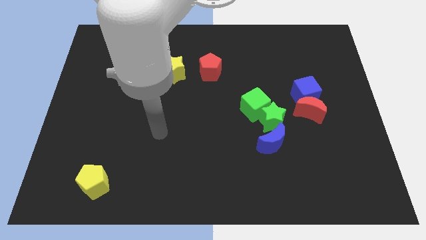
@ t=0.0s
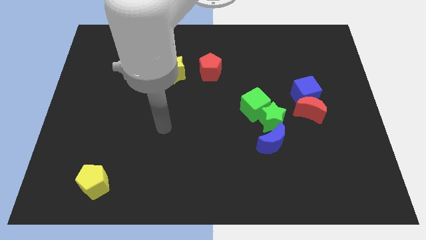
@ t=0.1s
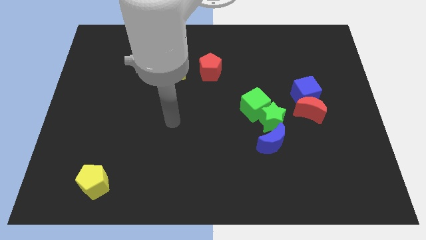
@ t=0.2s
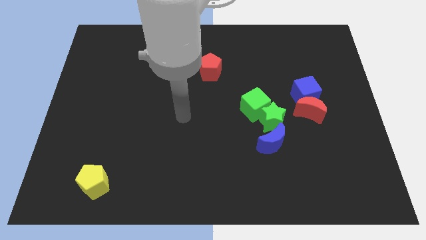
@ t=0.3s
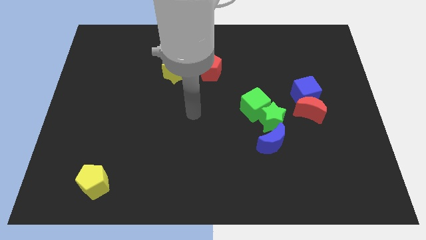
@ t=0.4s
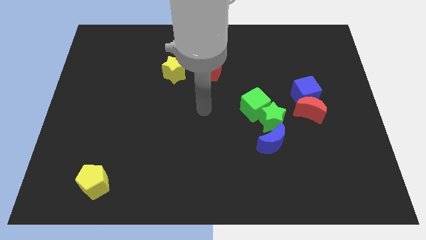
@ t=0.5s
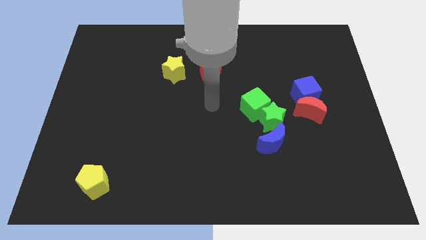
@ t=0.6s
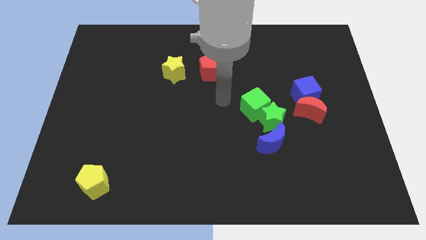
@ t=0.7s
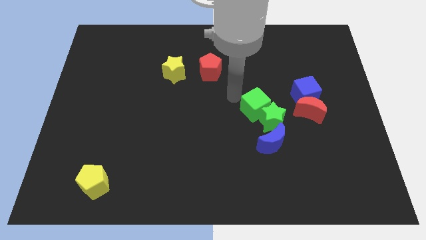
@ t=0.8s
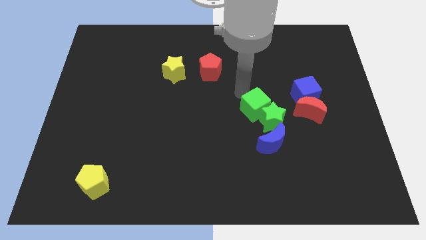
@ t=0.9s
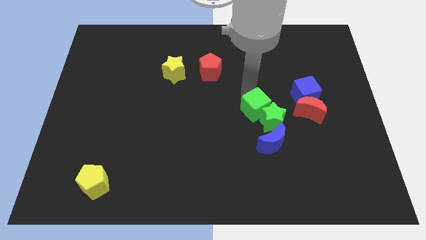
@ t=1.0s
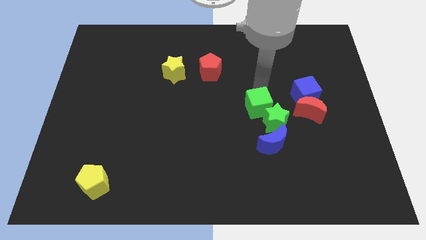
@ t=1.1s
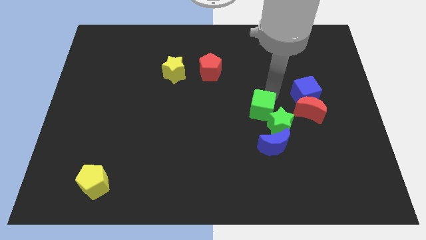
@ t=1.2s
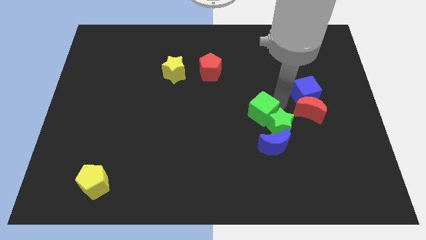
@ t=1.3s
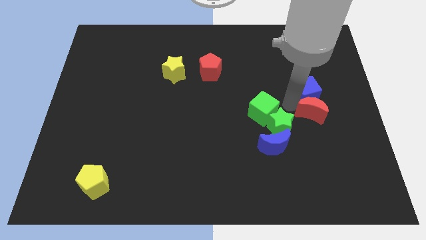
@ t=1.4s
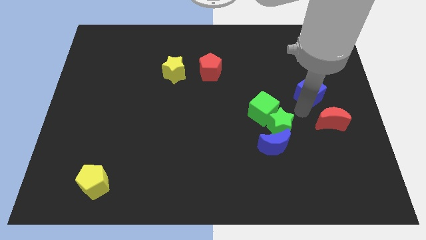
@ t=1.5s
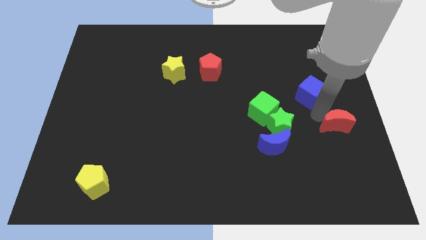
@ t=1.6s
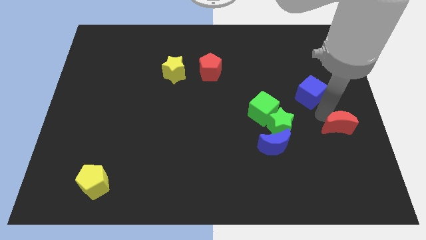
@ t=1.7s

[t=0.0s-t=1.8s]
move the blue cube away from the red moon

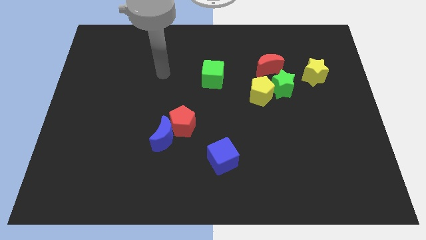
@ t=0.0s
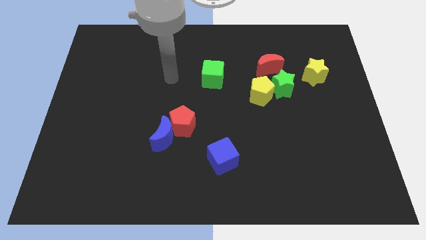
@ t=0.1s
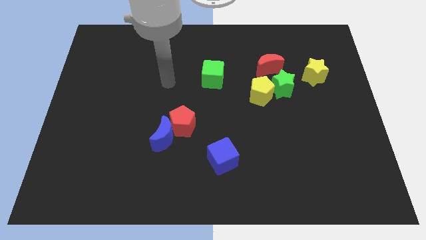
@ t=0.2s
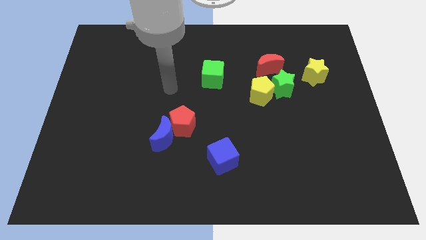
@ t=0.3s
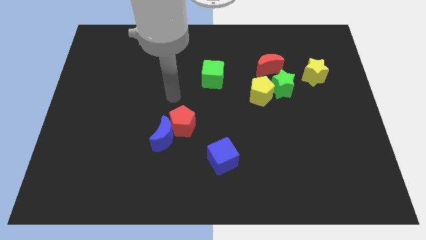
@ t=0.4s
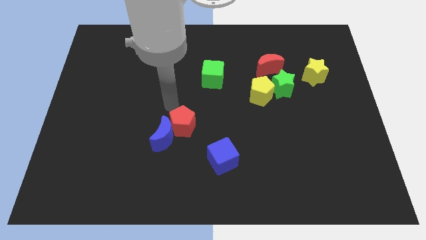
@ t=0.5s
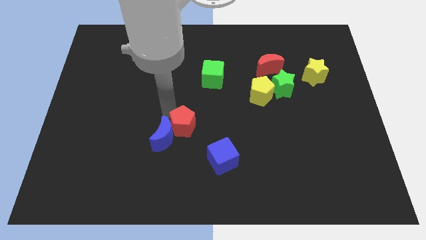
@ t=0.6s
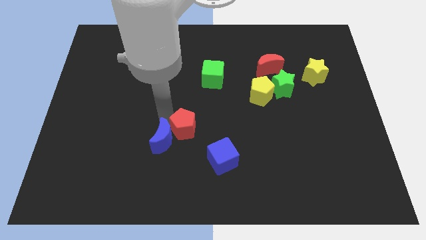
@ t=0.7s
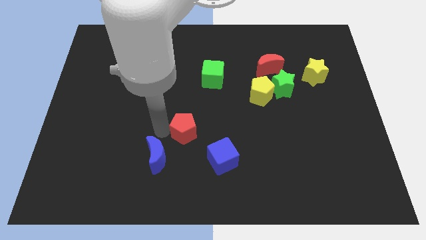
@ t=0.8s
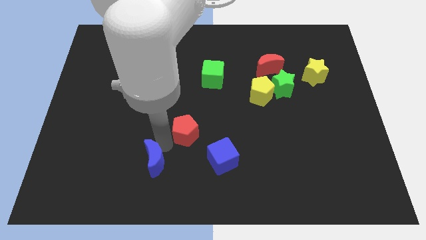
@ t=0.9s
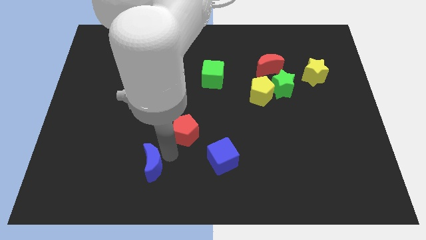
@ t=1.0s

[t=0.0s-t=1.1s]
separate the red pentagon from the blue moon

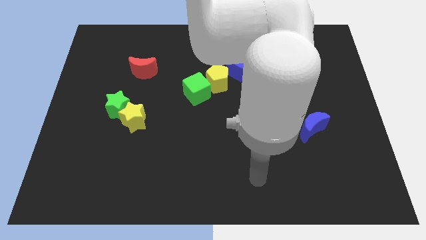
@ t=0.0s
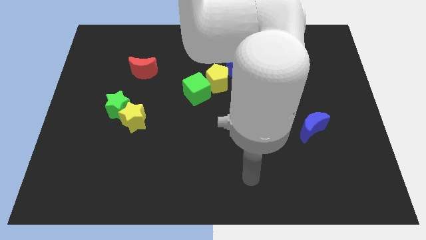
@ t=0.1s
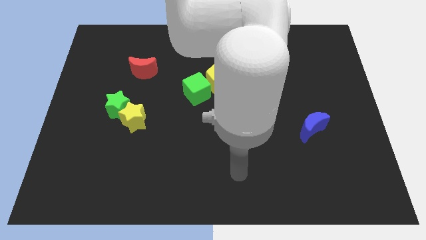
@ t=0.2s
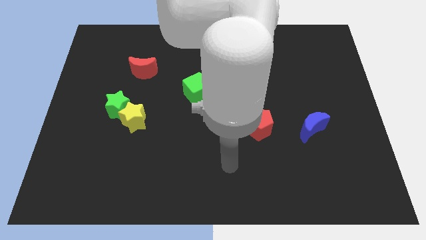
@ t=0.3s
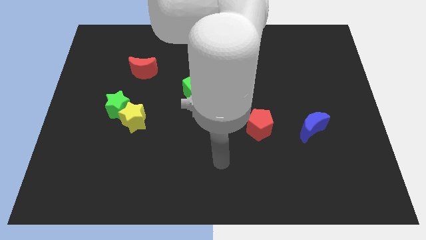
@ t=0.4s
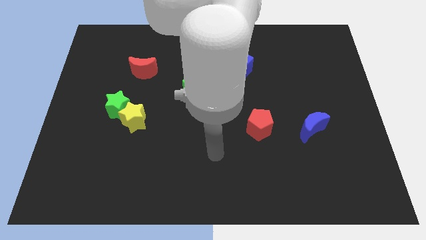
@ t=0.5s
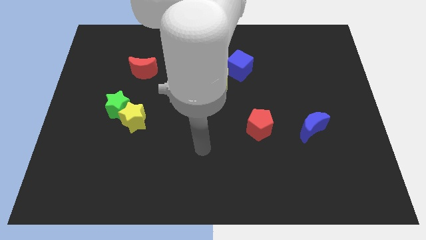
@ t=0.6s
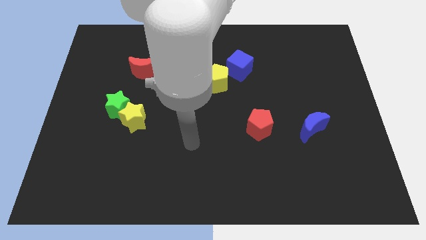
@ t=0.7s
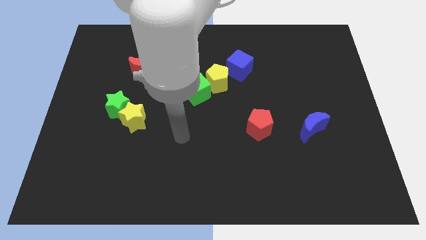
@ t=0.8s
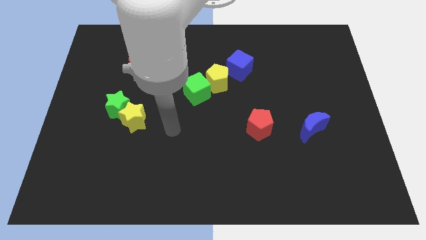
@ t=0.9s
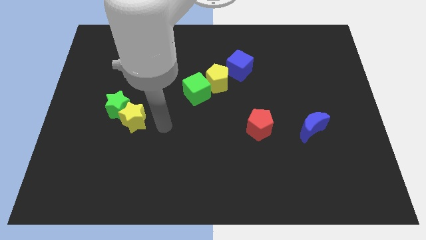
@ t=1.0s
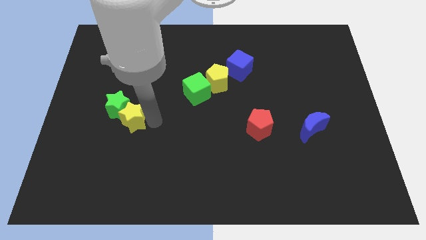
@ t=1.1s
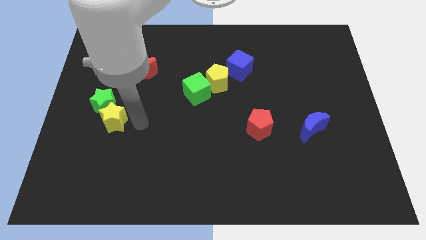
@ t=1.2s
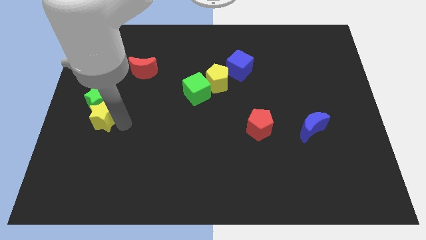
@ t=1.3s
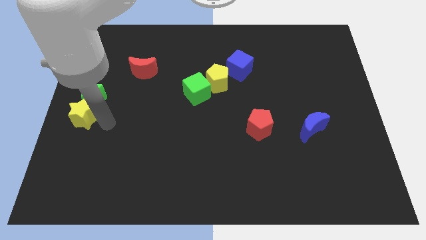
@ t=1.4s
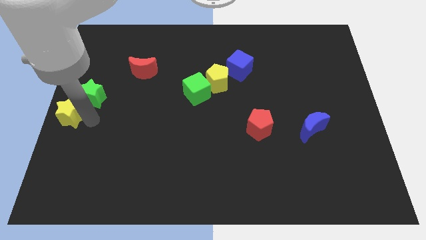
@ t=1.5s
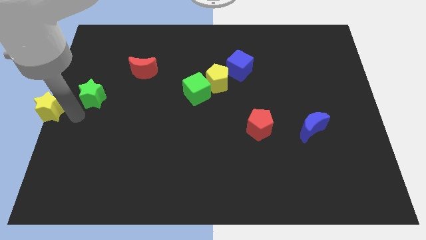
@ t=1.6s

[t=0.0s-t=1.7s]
pull the green star apart from the yellow star

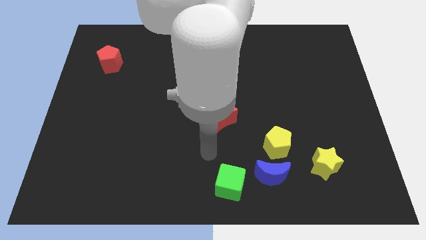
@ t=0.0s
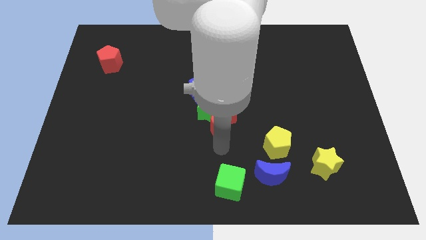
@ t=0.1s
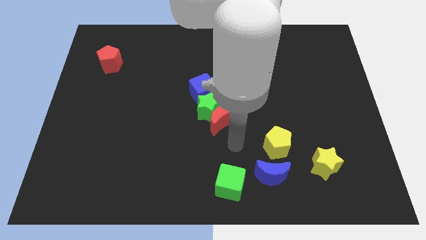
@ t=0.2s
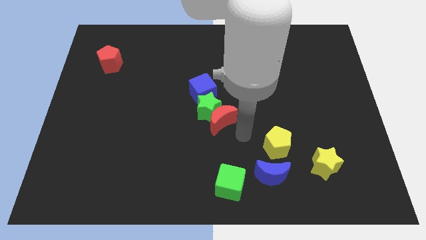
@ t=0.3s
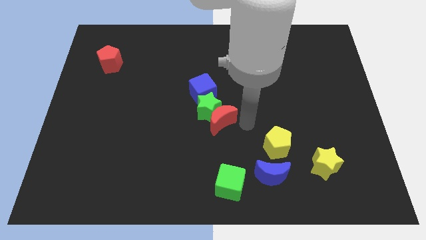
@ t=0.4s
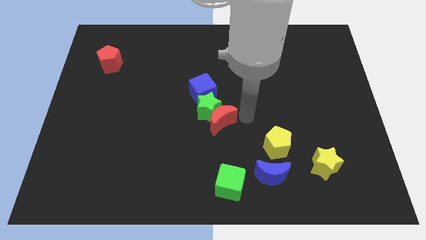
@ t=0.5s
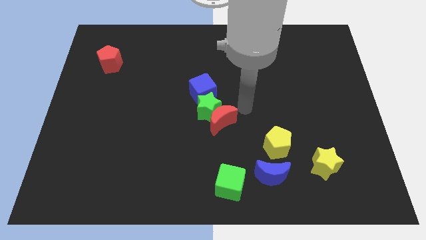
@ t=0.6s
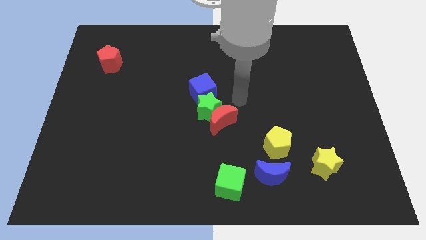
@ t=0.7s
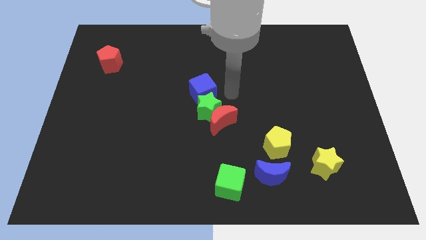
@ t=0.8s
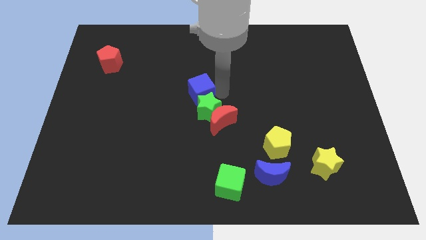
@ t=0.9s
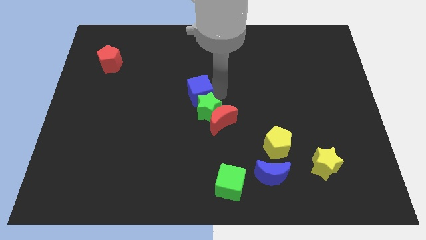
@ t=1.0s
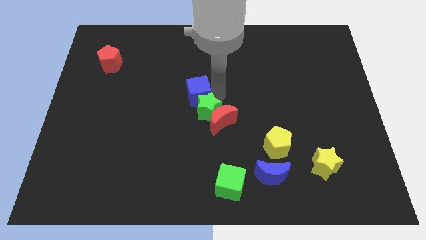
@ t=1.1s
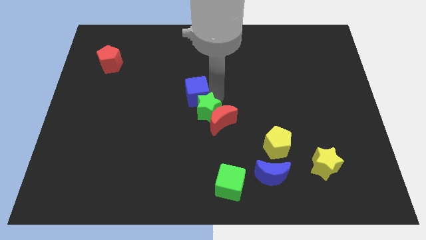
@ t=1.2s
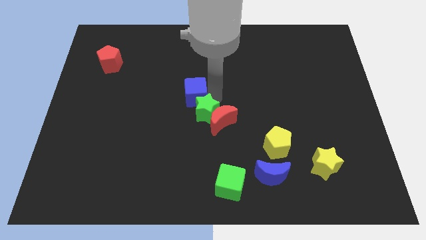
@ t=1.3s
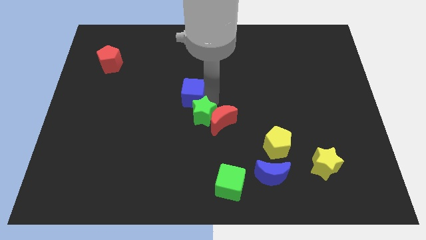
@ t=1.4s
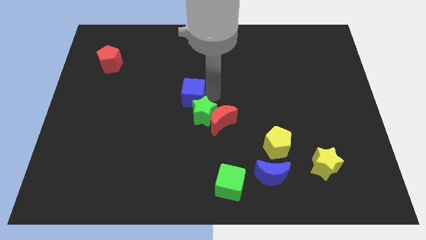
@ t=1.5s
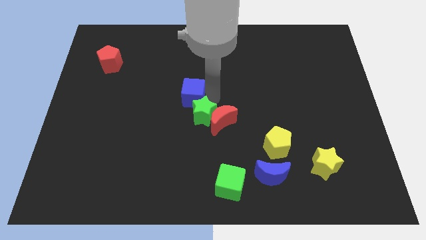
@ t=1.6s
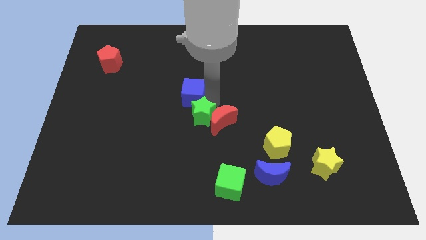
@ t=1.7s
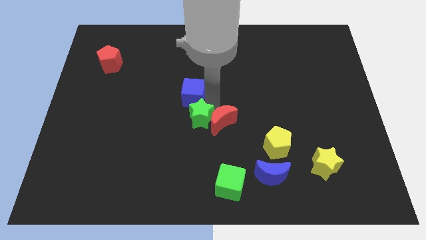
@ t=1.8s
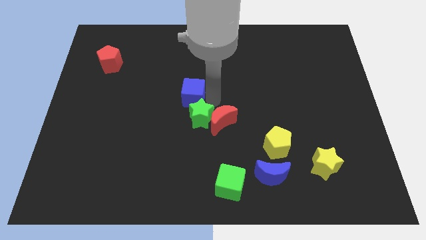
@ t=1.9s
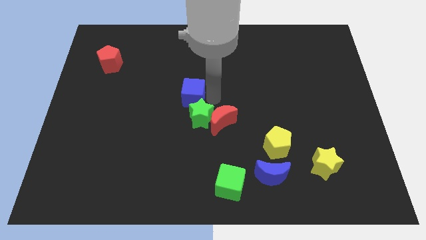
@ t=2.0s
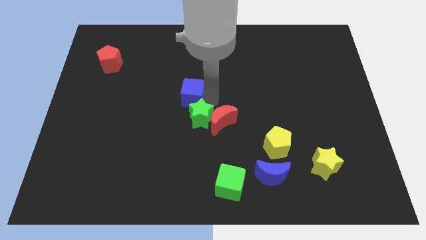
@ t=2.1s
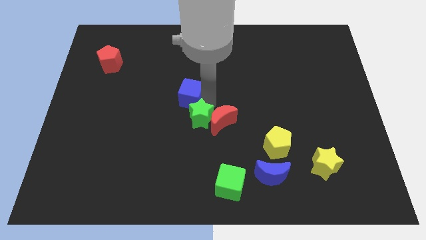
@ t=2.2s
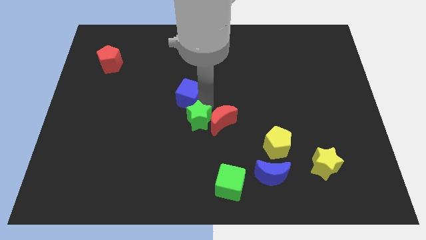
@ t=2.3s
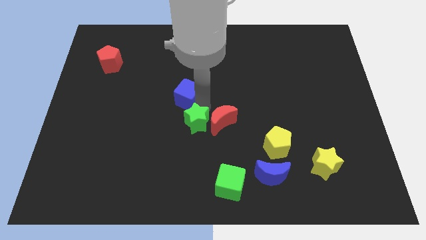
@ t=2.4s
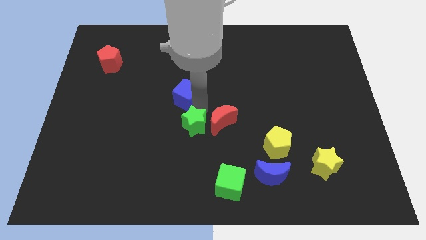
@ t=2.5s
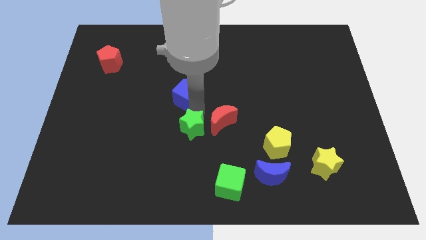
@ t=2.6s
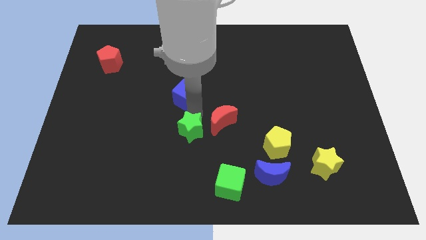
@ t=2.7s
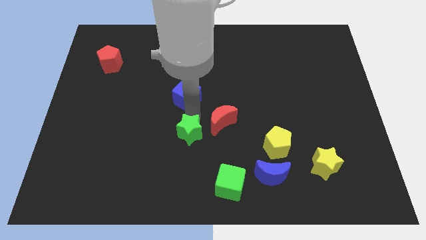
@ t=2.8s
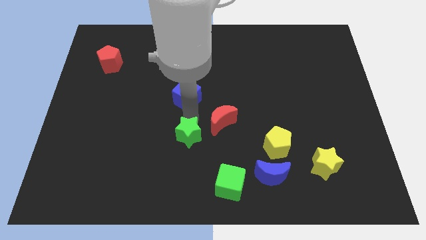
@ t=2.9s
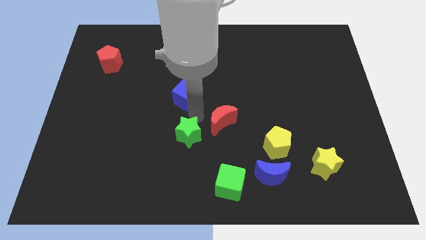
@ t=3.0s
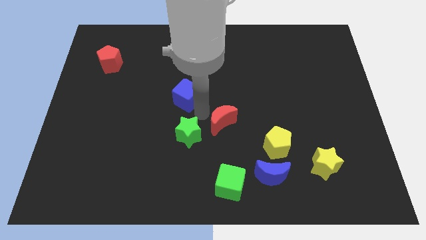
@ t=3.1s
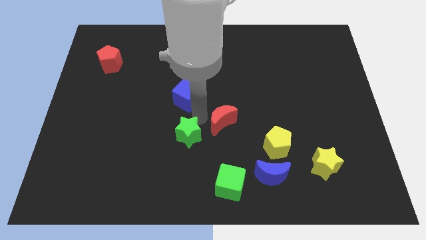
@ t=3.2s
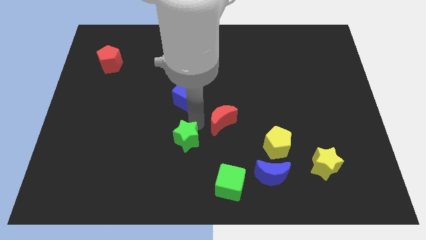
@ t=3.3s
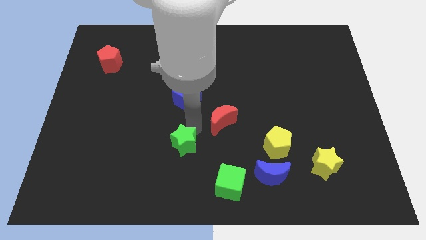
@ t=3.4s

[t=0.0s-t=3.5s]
separate the green star from the red moon and blue cube

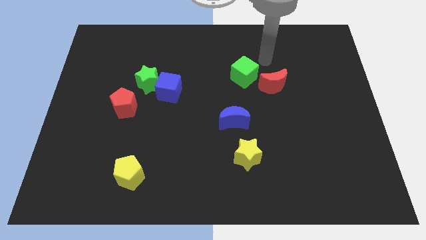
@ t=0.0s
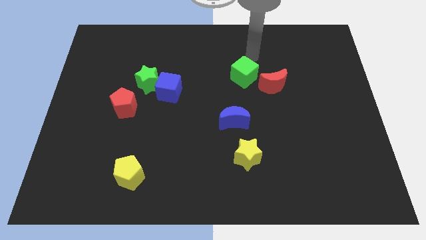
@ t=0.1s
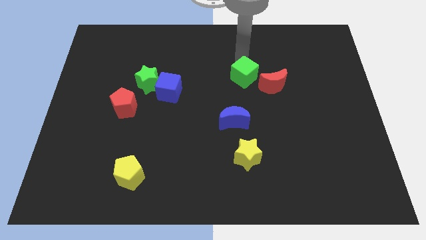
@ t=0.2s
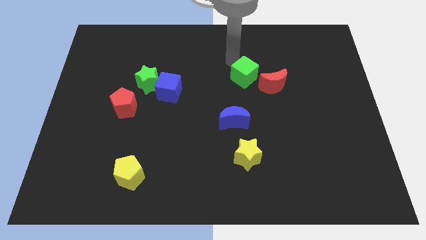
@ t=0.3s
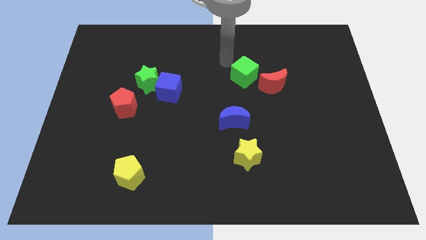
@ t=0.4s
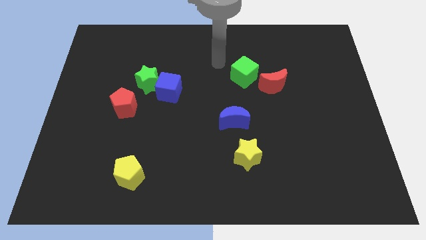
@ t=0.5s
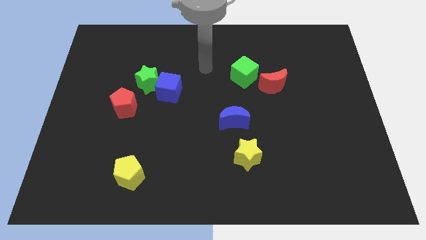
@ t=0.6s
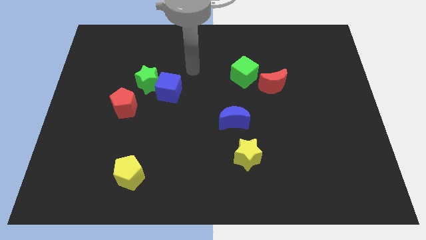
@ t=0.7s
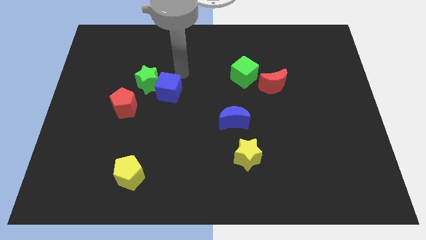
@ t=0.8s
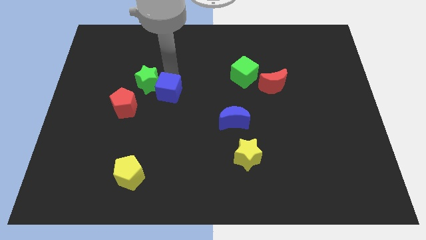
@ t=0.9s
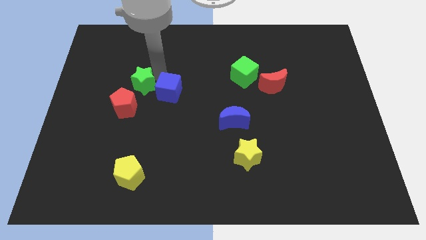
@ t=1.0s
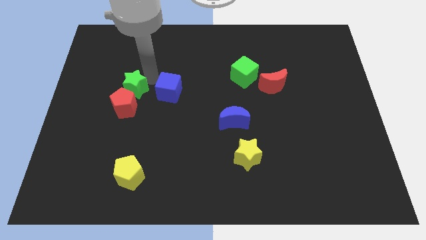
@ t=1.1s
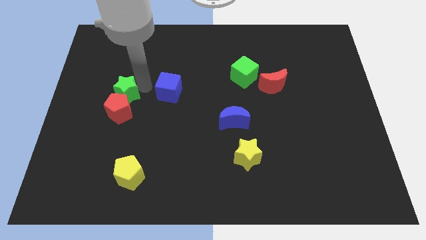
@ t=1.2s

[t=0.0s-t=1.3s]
separate the blue cube from the green star

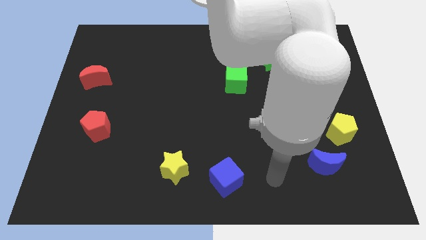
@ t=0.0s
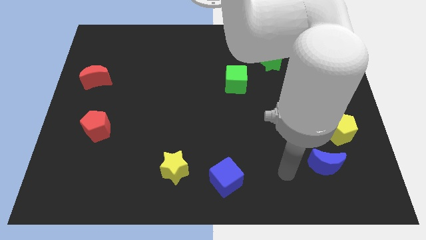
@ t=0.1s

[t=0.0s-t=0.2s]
pull the blue moon apart from the yellow pentagon
